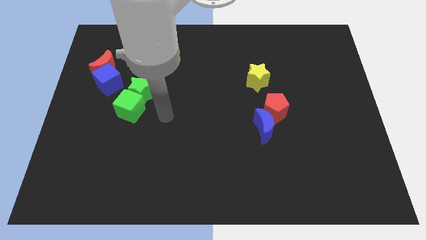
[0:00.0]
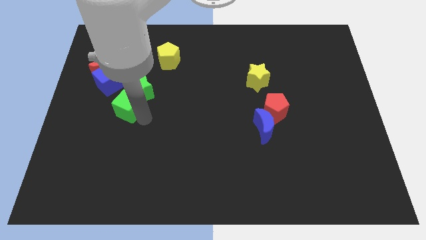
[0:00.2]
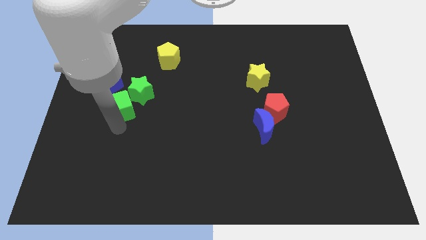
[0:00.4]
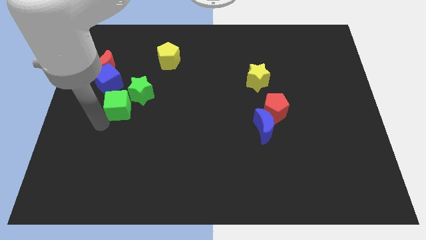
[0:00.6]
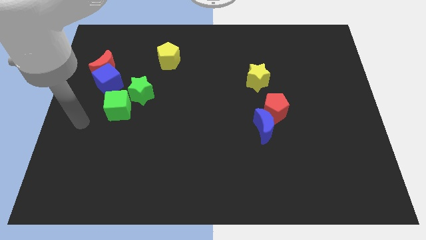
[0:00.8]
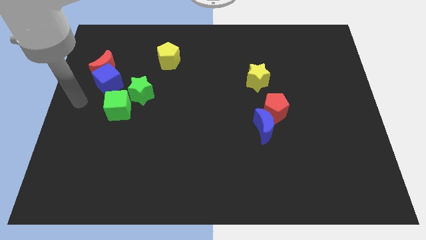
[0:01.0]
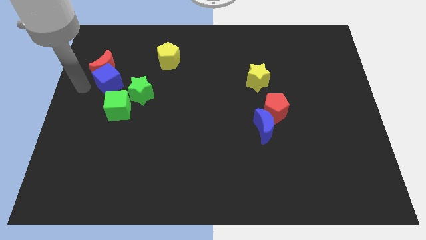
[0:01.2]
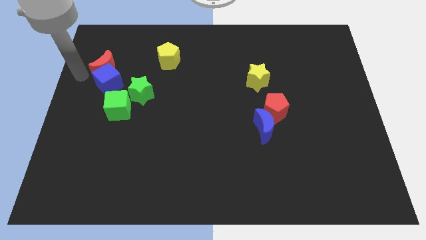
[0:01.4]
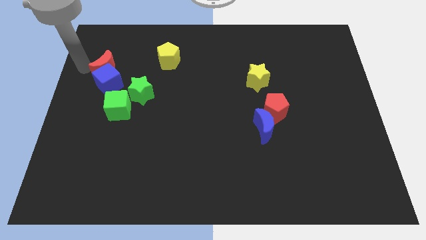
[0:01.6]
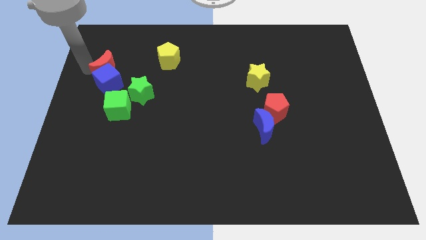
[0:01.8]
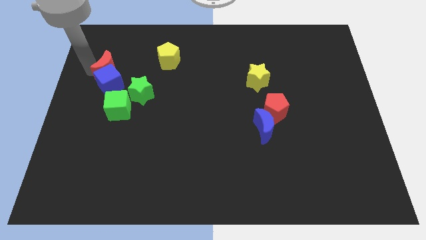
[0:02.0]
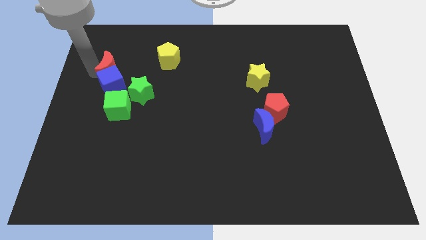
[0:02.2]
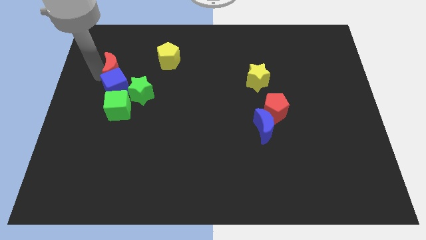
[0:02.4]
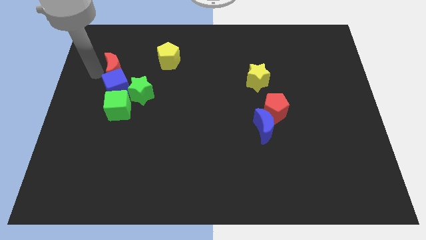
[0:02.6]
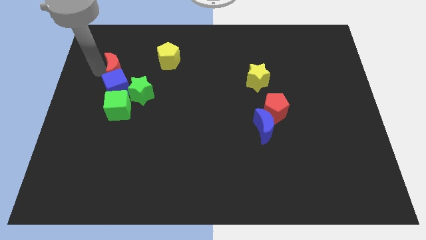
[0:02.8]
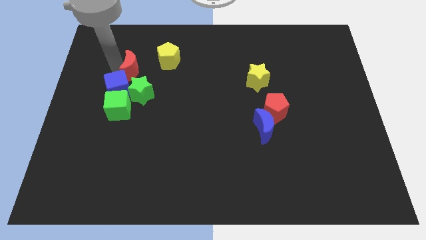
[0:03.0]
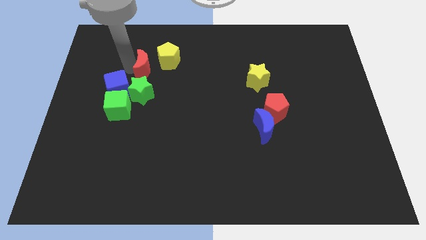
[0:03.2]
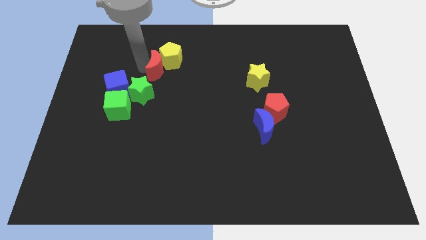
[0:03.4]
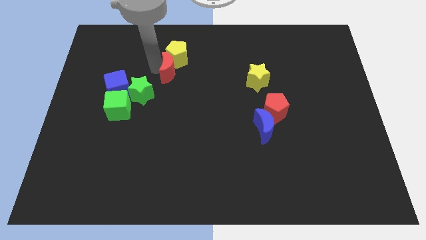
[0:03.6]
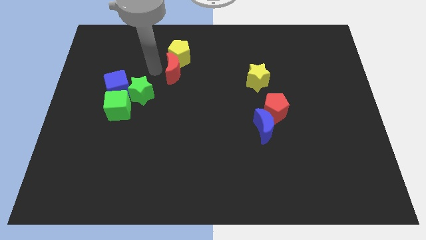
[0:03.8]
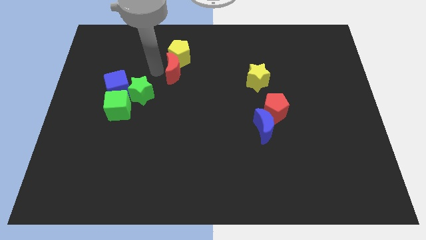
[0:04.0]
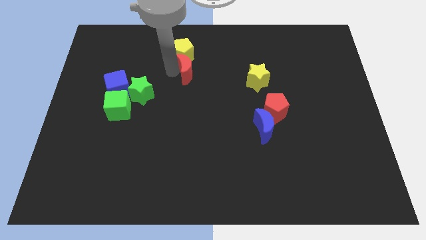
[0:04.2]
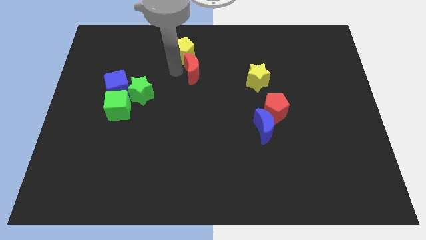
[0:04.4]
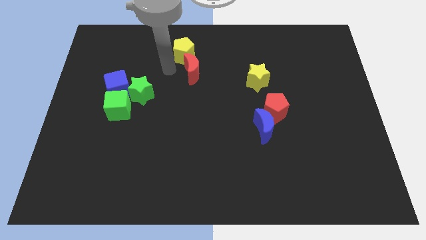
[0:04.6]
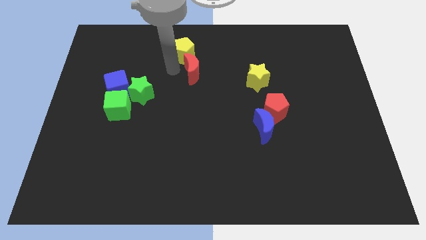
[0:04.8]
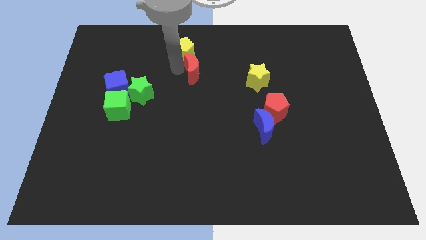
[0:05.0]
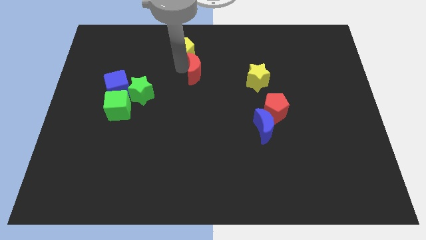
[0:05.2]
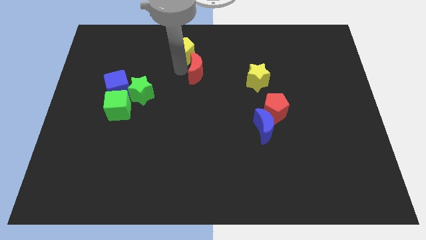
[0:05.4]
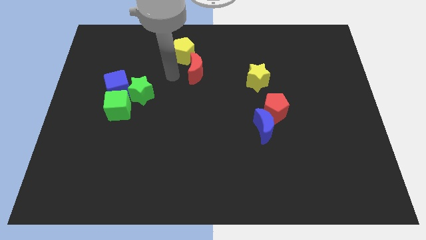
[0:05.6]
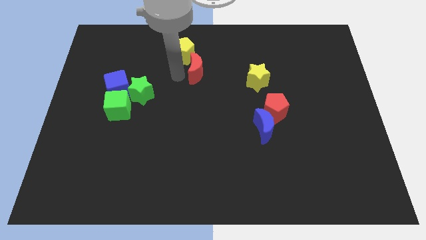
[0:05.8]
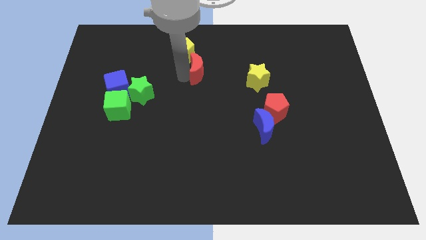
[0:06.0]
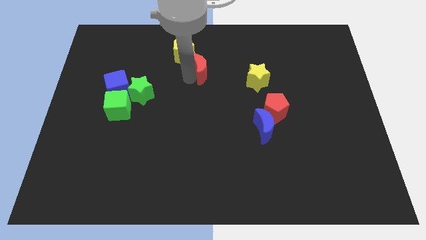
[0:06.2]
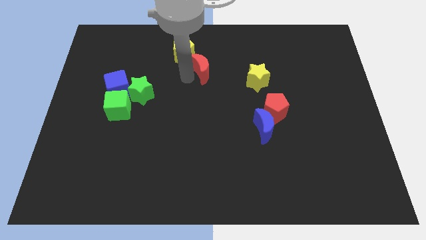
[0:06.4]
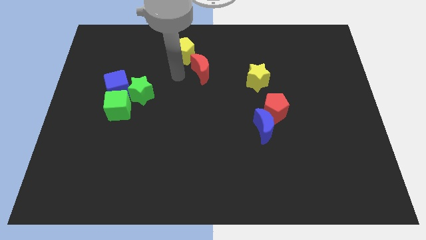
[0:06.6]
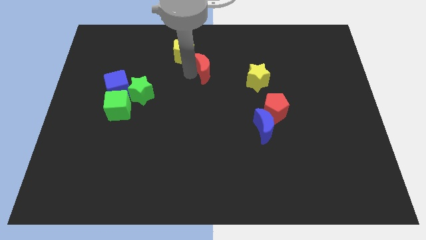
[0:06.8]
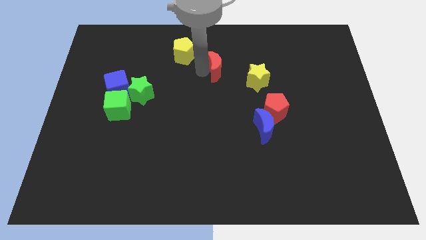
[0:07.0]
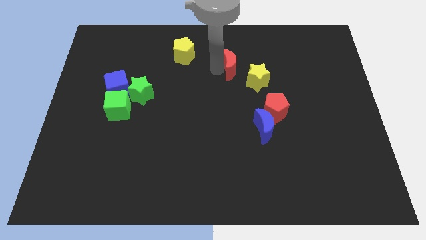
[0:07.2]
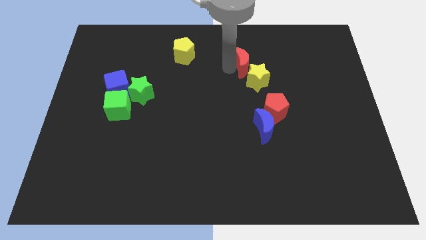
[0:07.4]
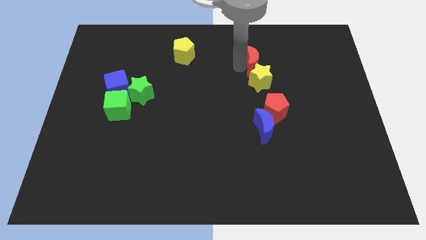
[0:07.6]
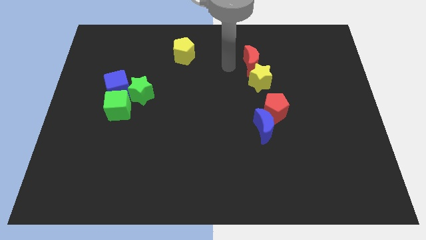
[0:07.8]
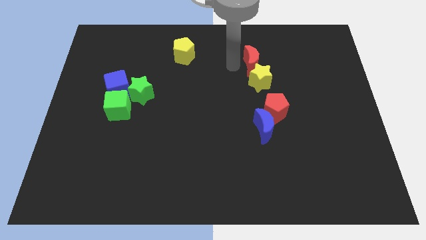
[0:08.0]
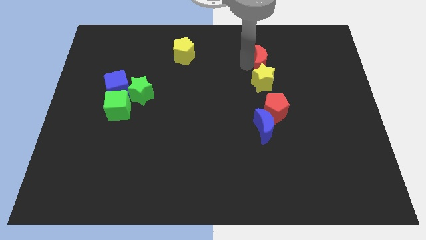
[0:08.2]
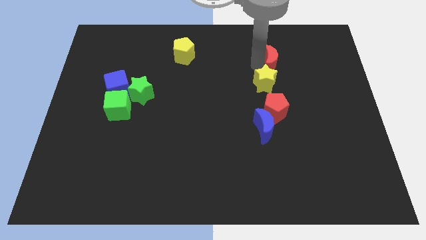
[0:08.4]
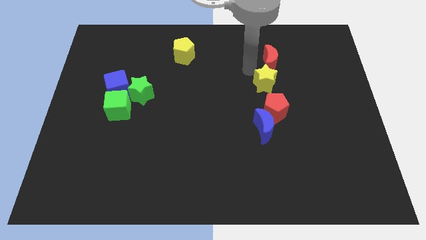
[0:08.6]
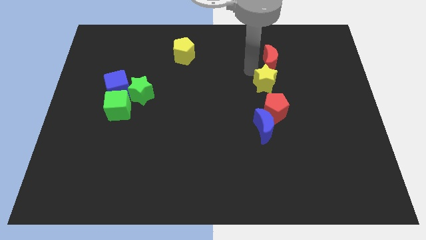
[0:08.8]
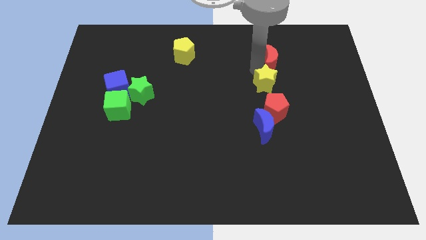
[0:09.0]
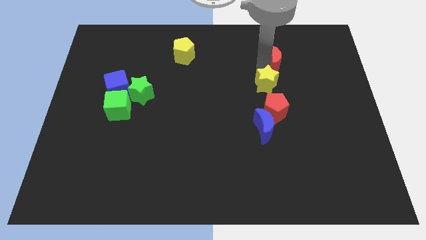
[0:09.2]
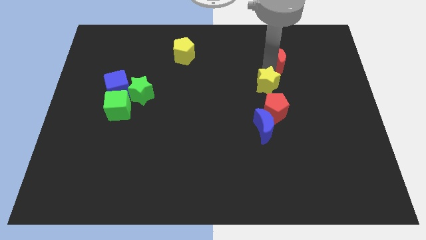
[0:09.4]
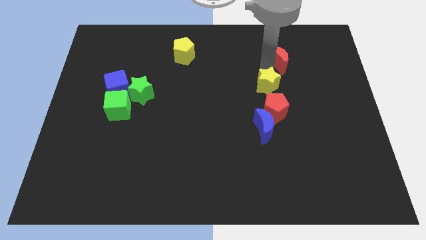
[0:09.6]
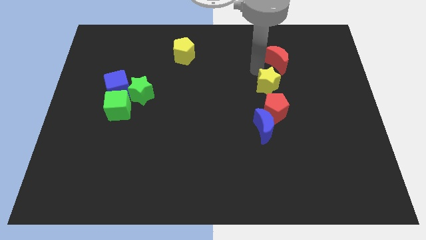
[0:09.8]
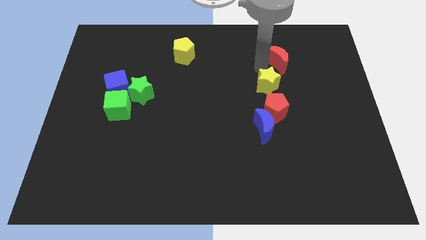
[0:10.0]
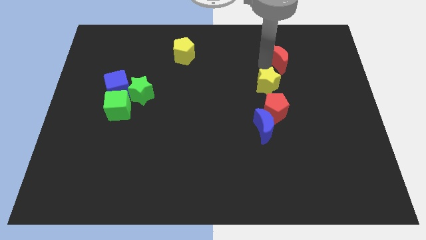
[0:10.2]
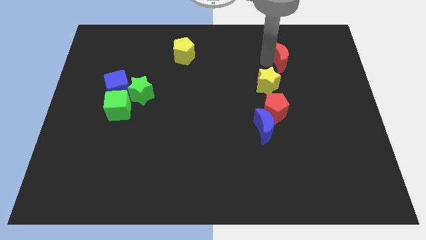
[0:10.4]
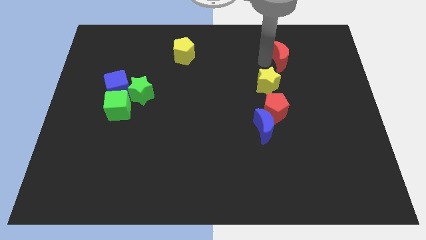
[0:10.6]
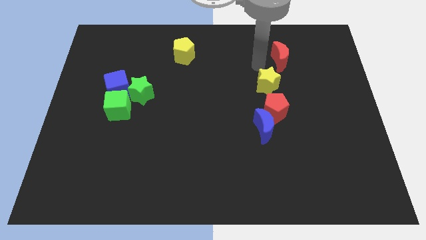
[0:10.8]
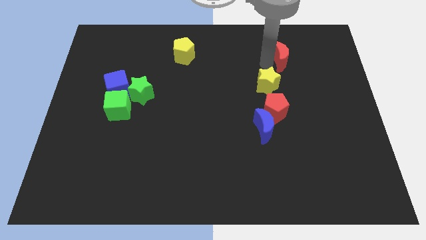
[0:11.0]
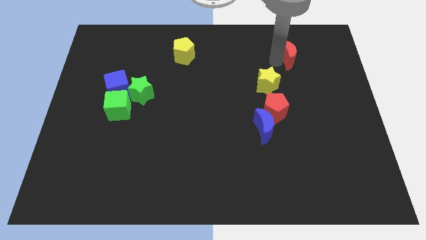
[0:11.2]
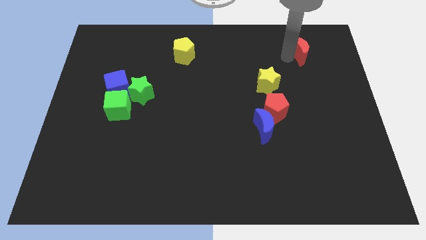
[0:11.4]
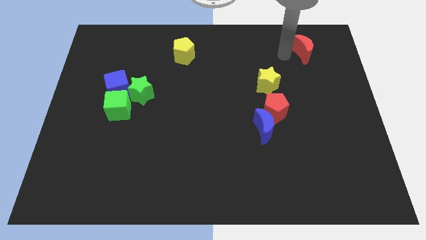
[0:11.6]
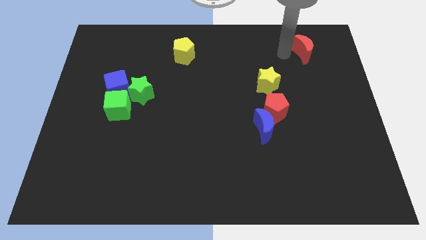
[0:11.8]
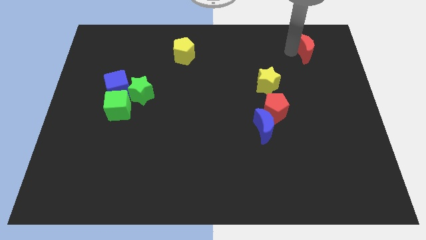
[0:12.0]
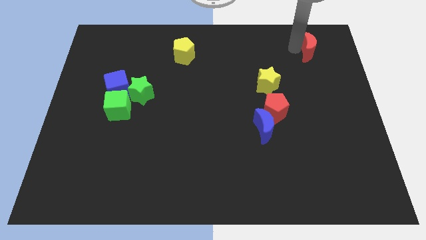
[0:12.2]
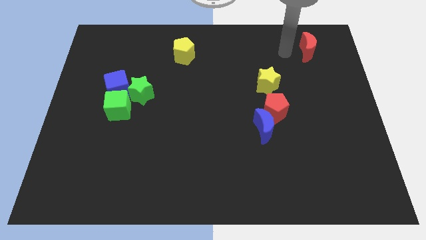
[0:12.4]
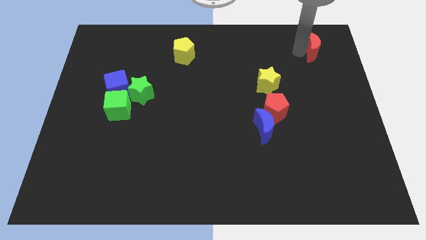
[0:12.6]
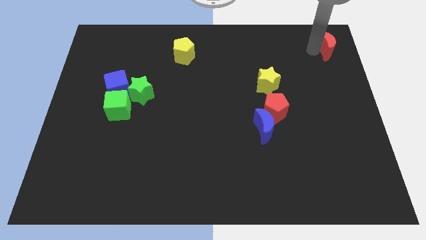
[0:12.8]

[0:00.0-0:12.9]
move the red moon to the top right of the board

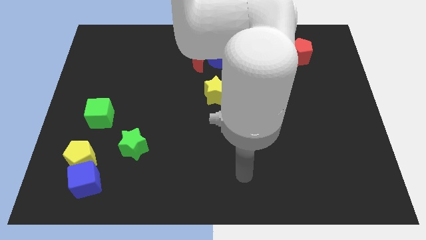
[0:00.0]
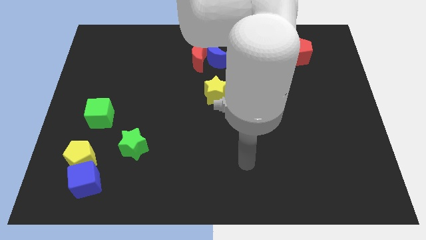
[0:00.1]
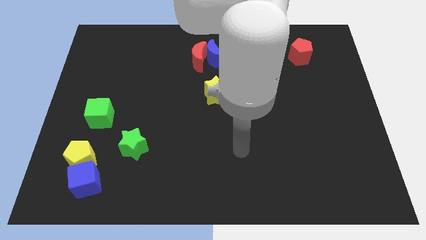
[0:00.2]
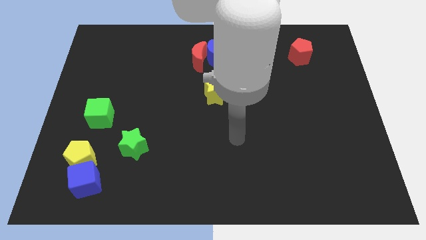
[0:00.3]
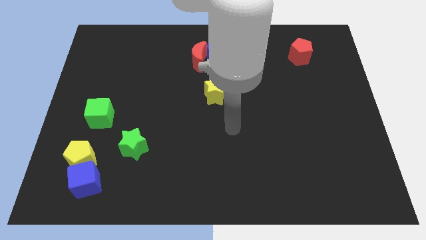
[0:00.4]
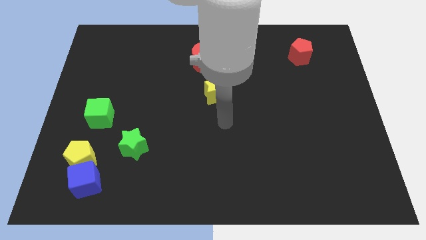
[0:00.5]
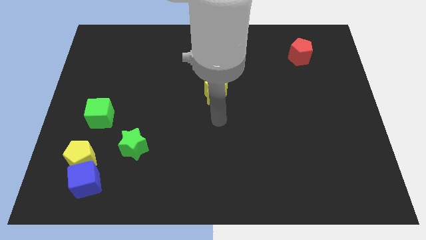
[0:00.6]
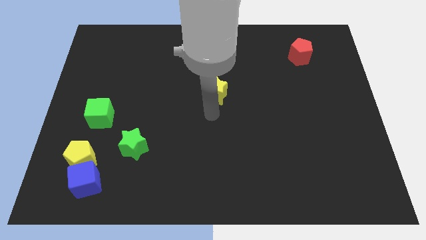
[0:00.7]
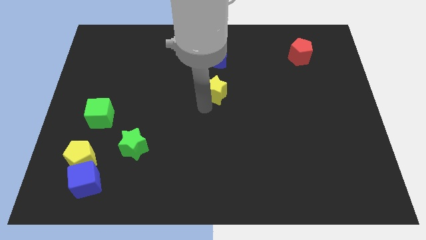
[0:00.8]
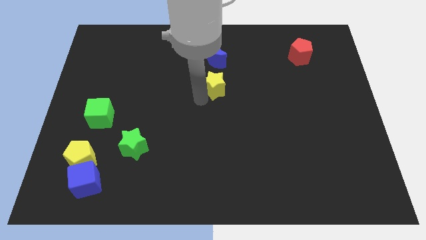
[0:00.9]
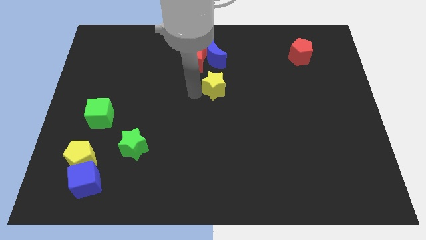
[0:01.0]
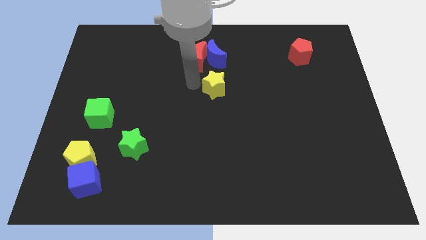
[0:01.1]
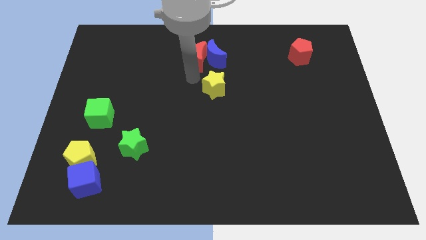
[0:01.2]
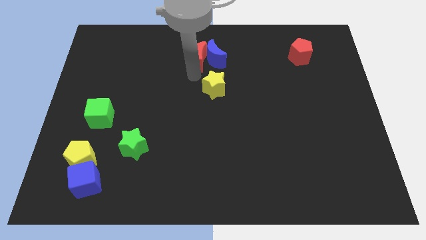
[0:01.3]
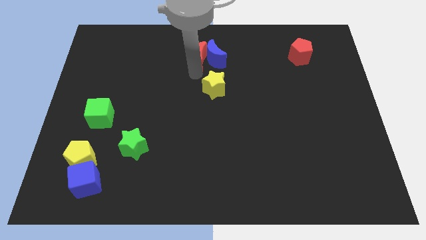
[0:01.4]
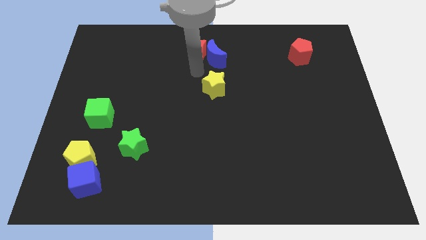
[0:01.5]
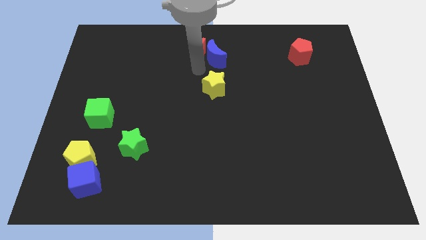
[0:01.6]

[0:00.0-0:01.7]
put the red moon to the top
